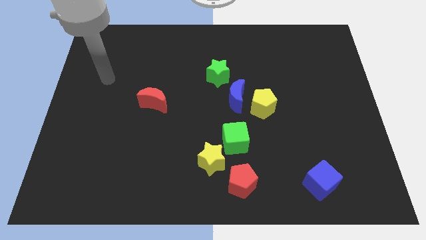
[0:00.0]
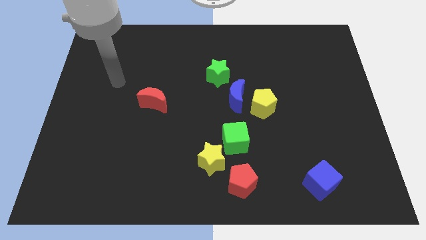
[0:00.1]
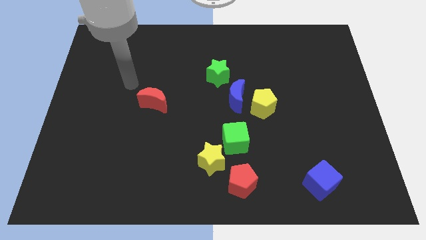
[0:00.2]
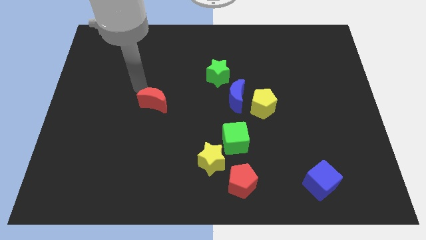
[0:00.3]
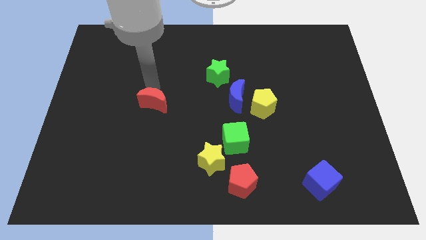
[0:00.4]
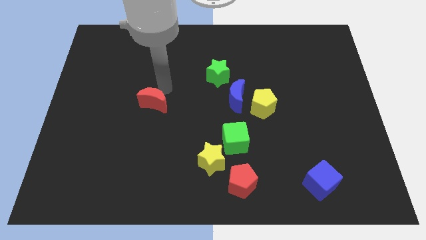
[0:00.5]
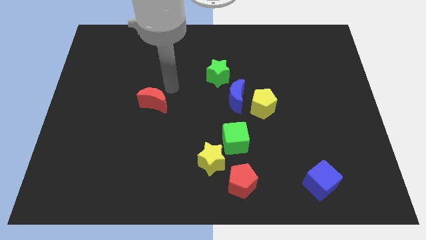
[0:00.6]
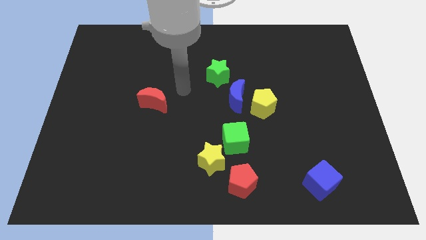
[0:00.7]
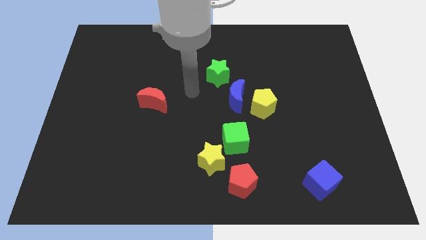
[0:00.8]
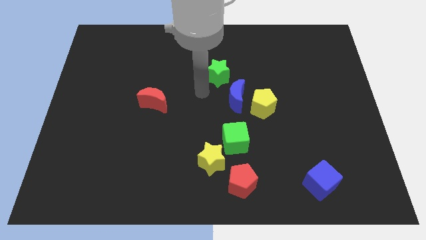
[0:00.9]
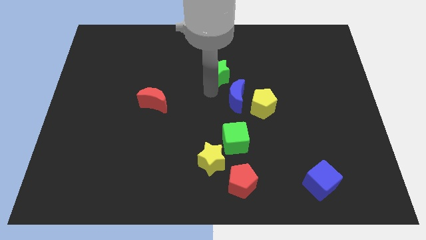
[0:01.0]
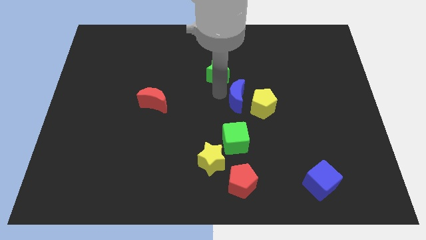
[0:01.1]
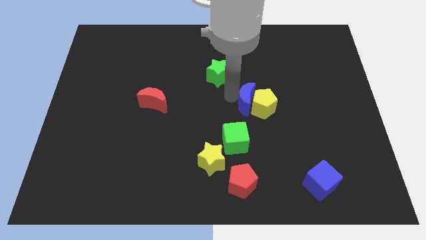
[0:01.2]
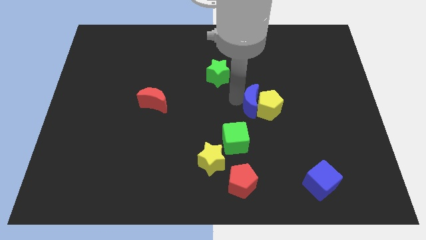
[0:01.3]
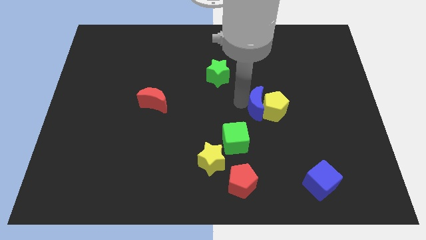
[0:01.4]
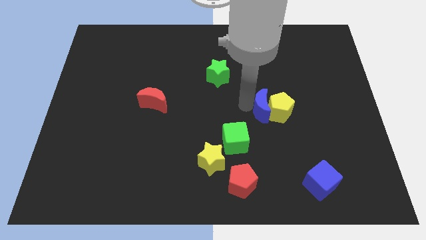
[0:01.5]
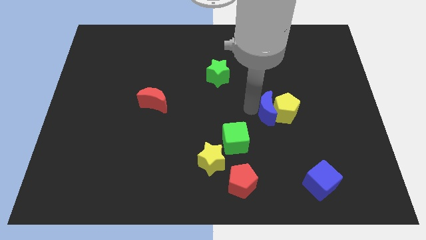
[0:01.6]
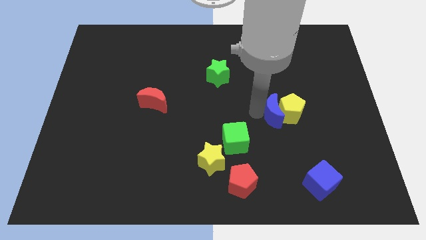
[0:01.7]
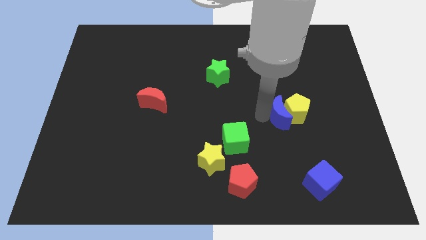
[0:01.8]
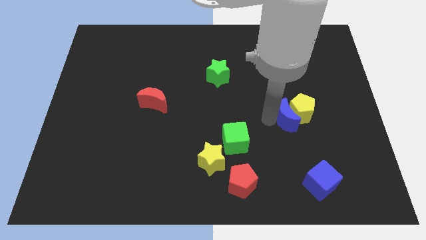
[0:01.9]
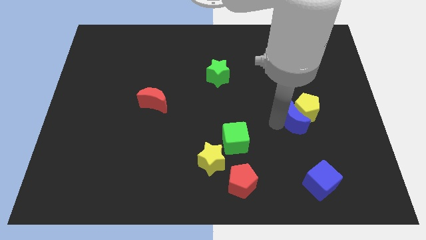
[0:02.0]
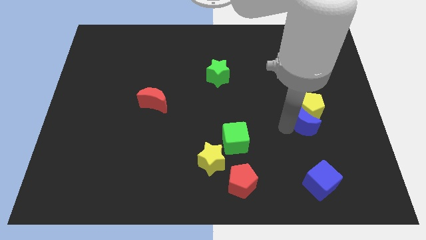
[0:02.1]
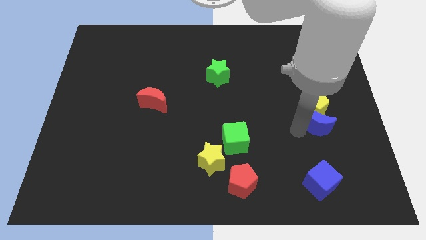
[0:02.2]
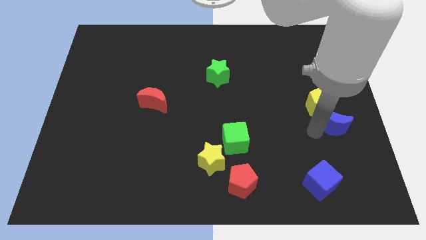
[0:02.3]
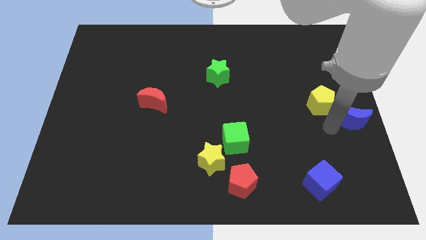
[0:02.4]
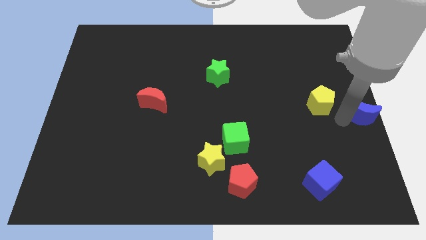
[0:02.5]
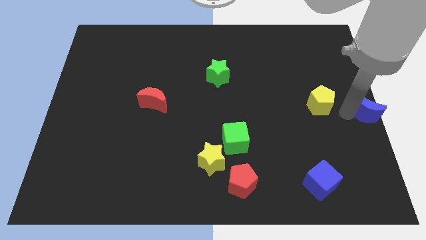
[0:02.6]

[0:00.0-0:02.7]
pull the yellow pentagon apart from the blue moon

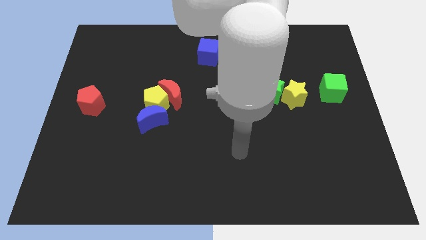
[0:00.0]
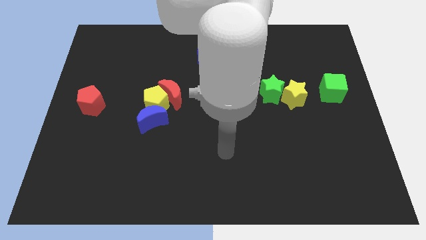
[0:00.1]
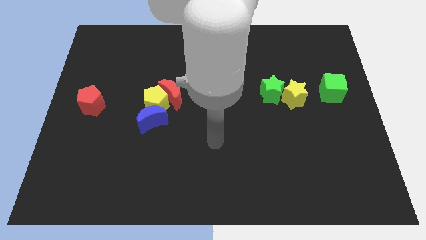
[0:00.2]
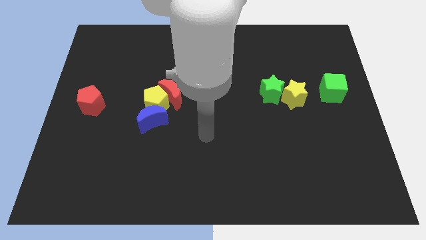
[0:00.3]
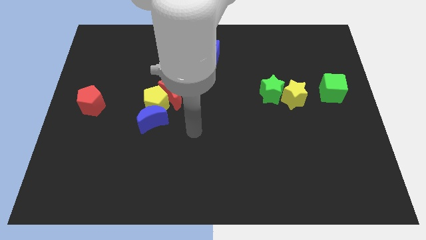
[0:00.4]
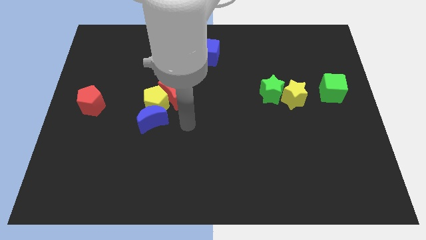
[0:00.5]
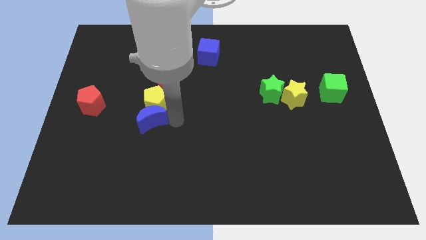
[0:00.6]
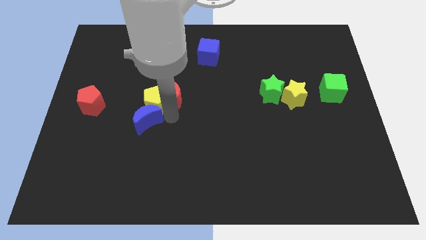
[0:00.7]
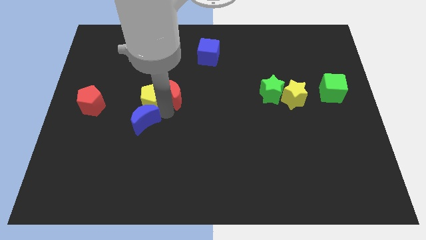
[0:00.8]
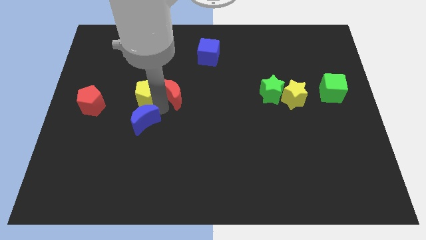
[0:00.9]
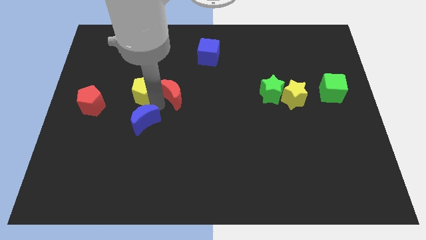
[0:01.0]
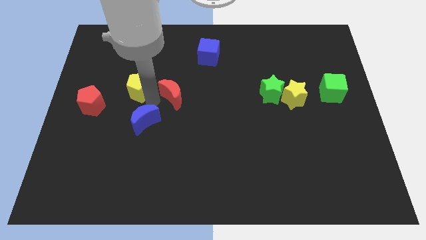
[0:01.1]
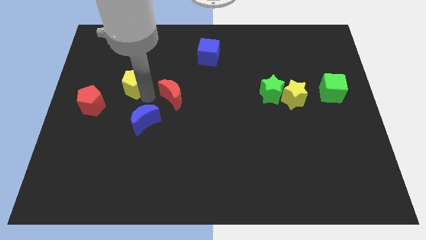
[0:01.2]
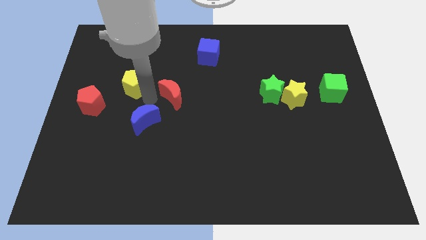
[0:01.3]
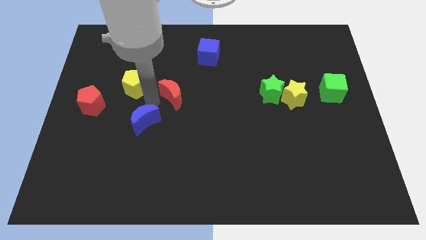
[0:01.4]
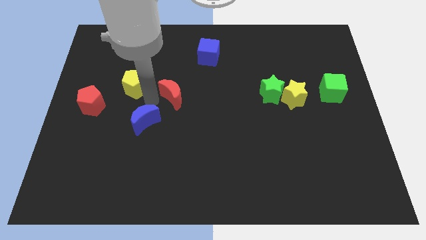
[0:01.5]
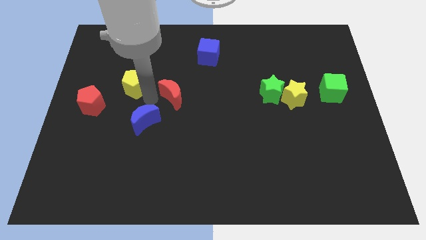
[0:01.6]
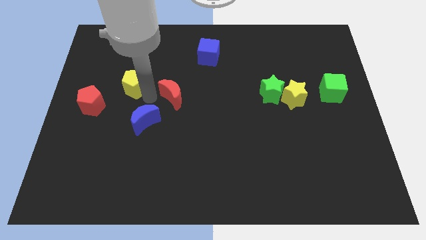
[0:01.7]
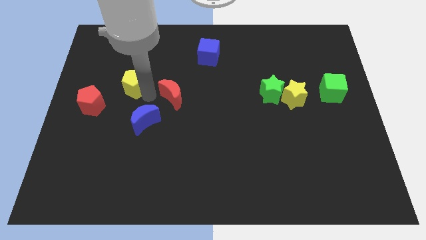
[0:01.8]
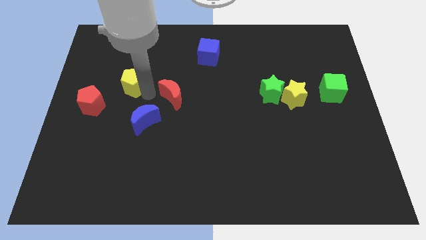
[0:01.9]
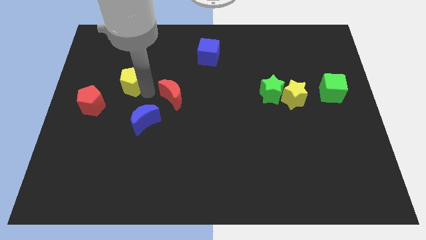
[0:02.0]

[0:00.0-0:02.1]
separate the yellow pentagon from the red moon and blue moon

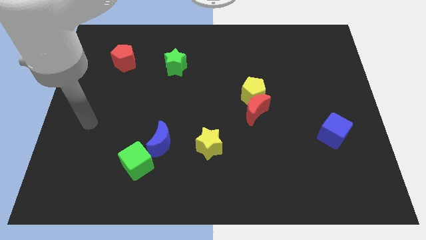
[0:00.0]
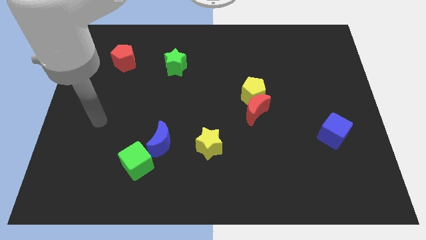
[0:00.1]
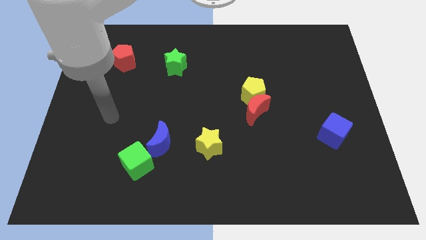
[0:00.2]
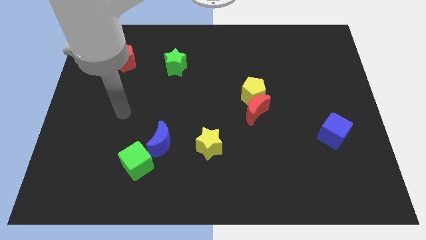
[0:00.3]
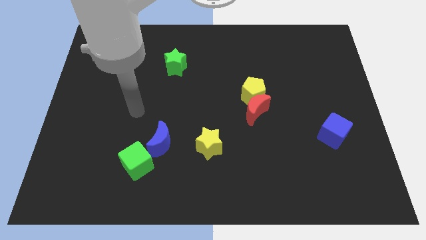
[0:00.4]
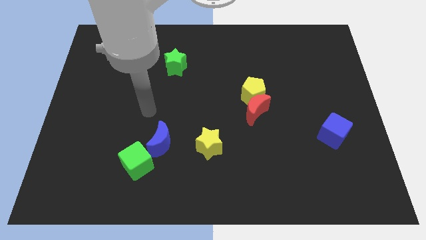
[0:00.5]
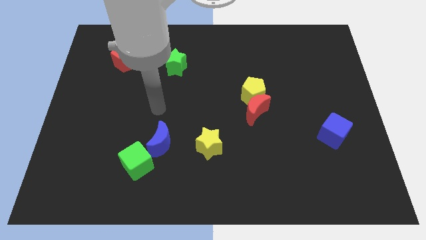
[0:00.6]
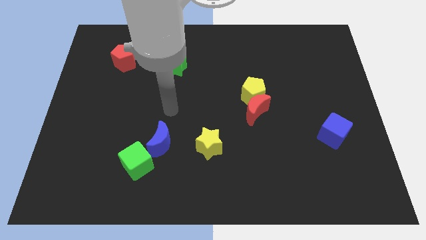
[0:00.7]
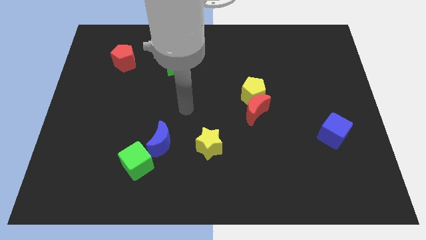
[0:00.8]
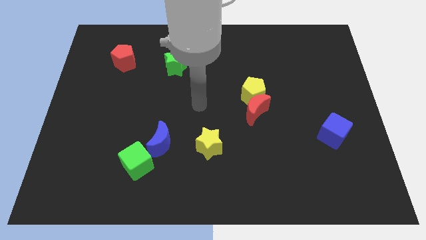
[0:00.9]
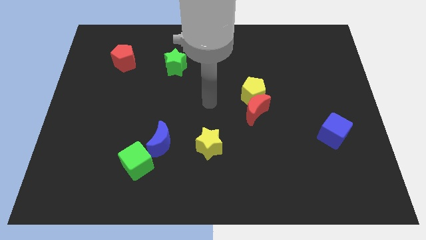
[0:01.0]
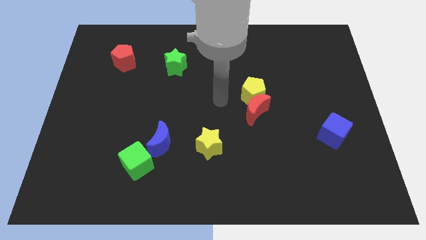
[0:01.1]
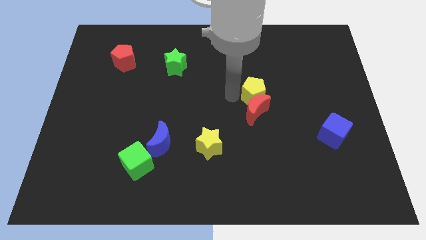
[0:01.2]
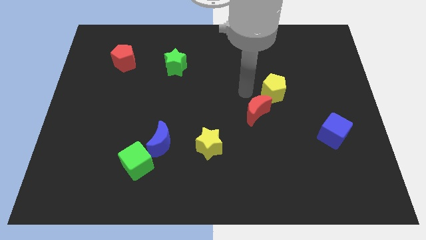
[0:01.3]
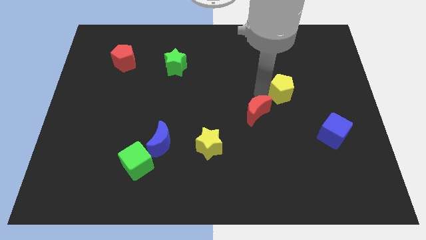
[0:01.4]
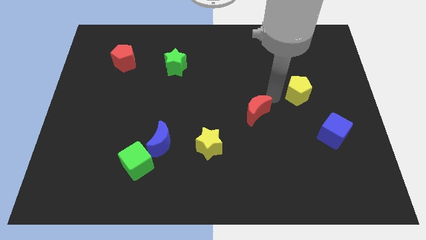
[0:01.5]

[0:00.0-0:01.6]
move the red moon away from the yellow pentagon

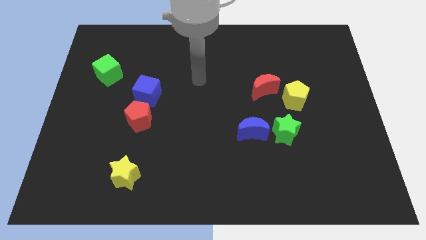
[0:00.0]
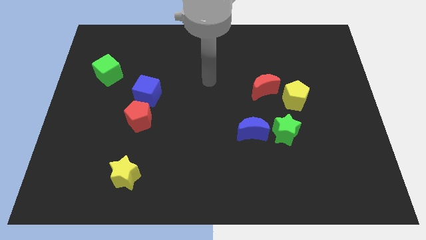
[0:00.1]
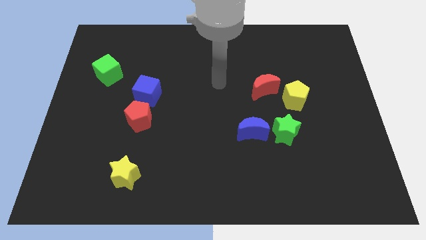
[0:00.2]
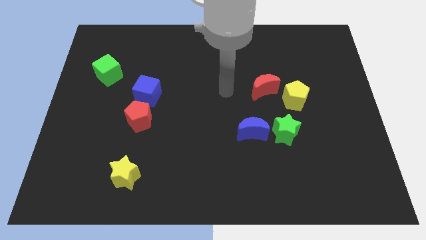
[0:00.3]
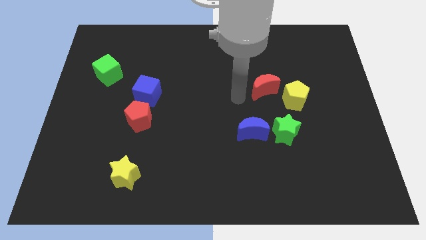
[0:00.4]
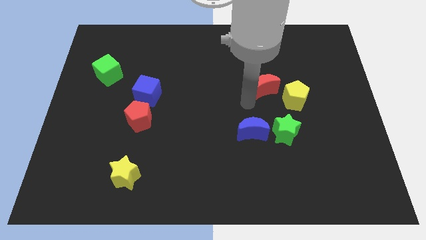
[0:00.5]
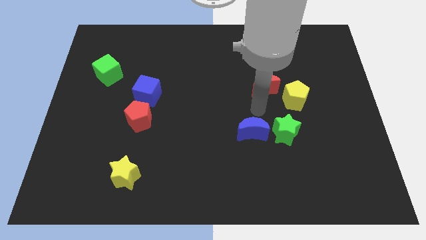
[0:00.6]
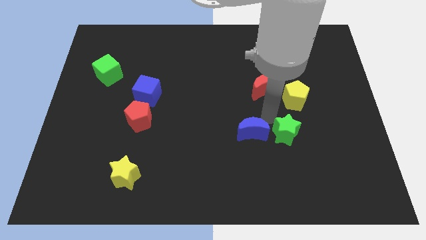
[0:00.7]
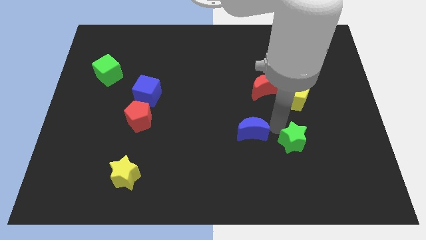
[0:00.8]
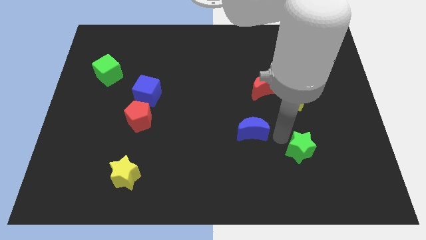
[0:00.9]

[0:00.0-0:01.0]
pull the blue moon apart from the green star

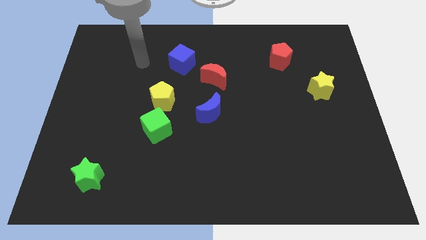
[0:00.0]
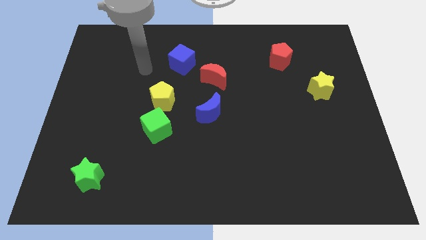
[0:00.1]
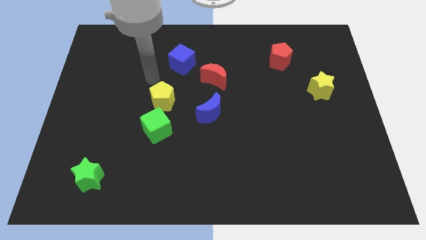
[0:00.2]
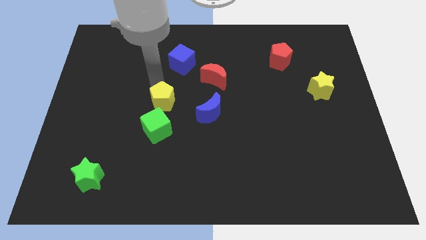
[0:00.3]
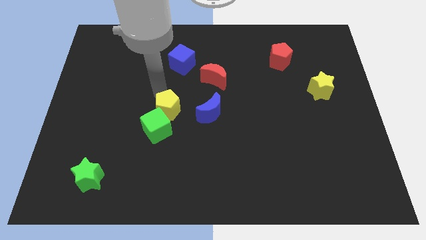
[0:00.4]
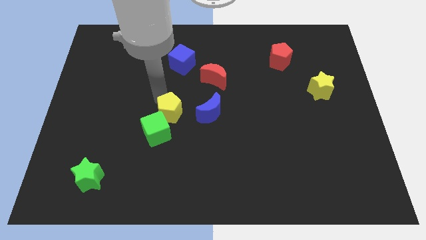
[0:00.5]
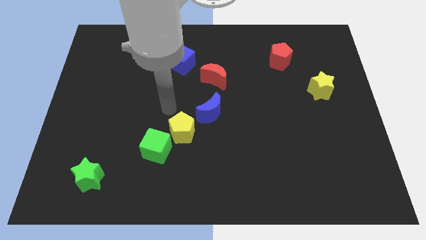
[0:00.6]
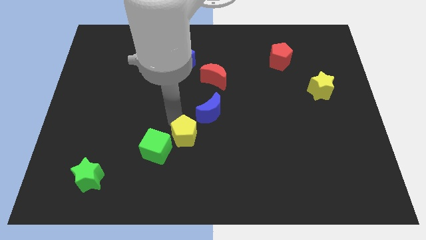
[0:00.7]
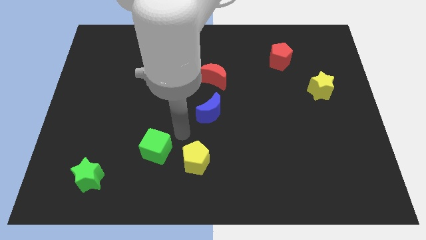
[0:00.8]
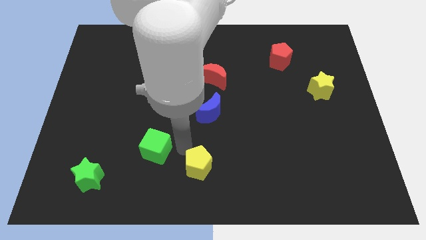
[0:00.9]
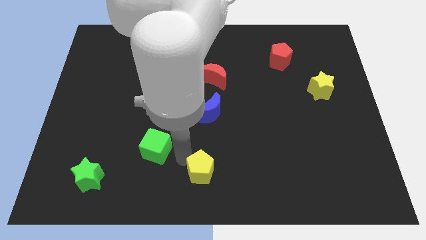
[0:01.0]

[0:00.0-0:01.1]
move the green cube away from the yellow pentagon

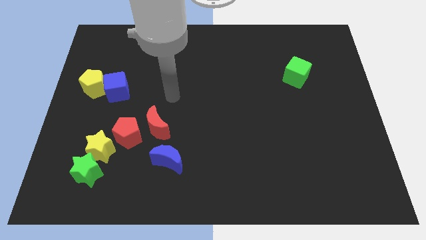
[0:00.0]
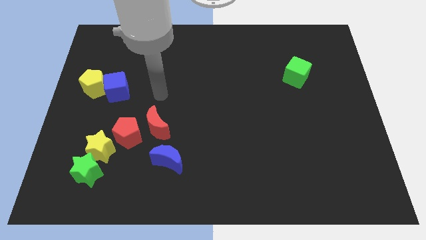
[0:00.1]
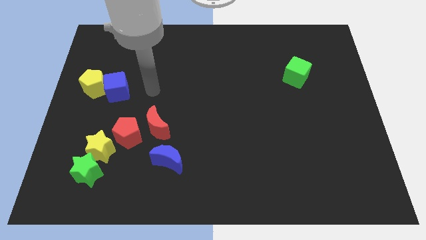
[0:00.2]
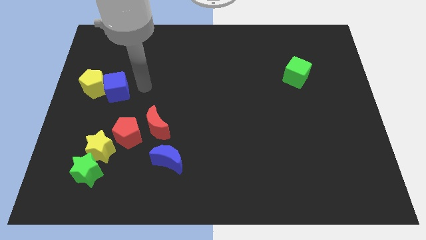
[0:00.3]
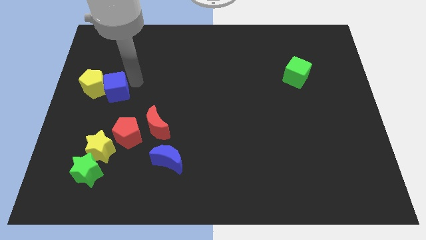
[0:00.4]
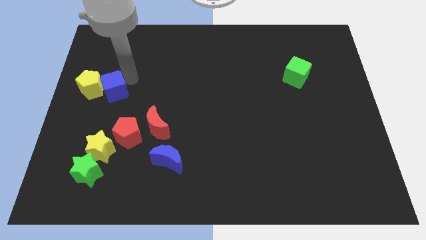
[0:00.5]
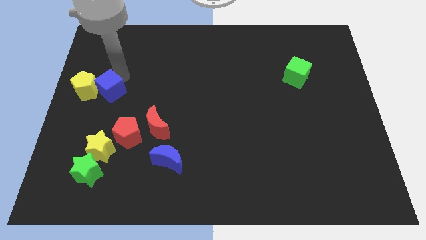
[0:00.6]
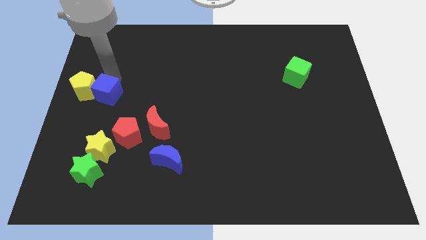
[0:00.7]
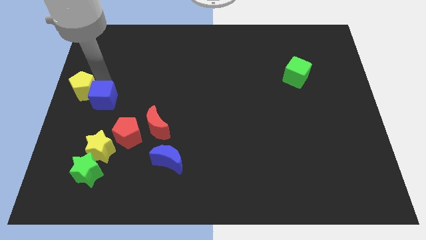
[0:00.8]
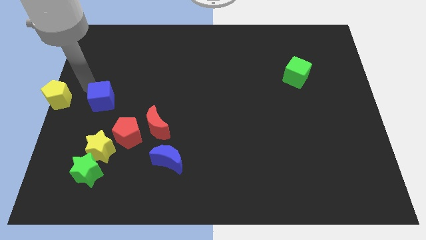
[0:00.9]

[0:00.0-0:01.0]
pull the blue cube apart from the yellow pentagon
